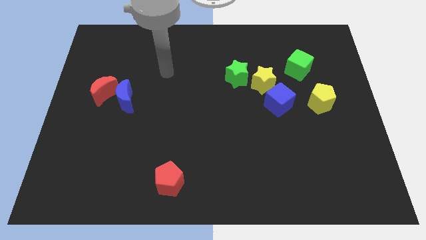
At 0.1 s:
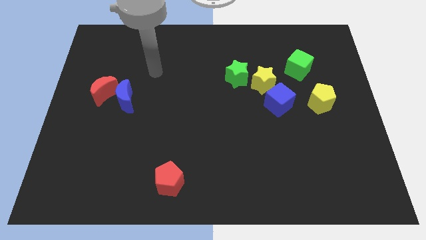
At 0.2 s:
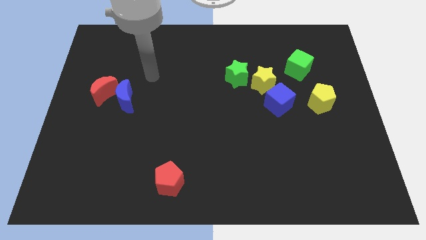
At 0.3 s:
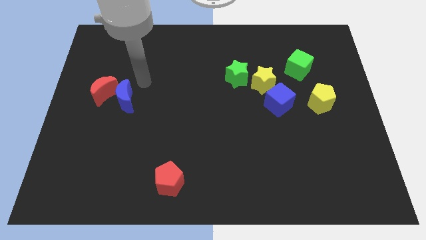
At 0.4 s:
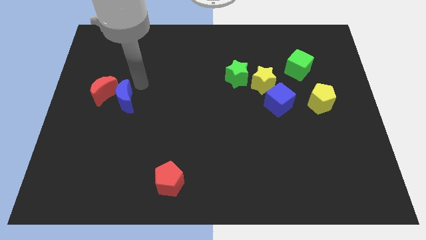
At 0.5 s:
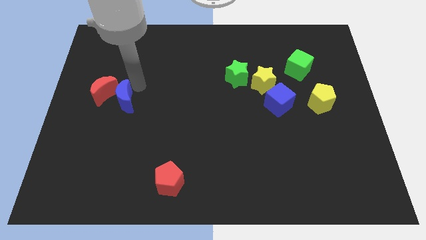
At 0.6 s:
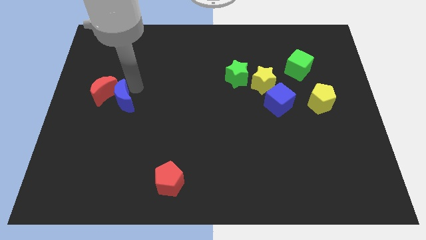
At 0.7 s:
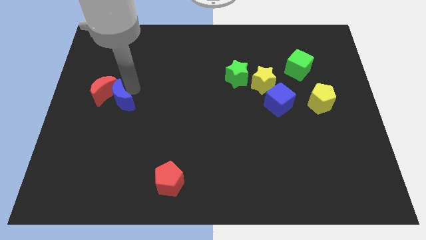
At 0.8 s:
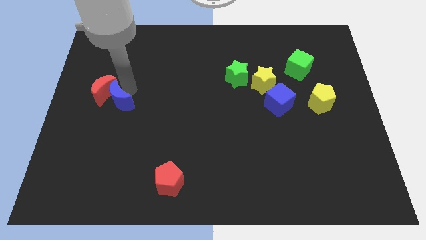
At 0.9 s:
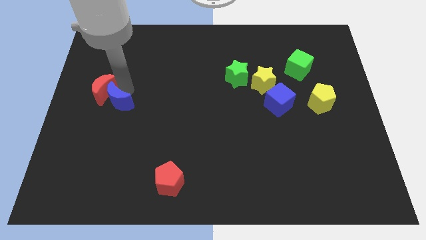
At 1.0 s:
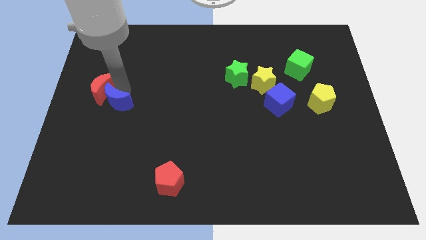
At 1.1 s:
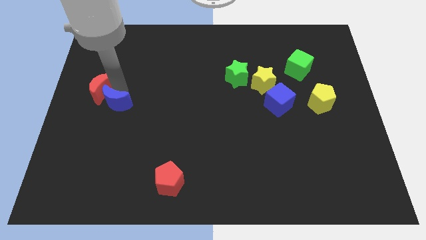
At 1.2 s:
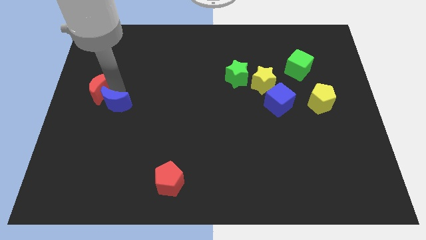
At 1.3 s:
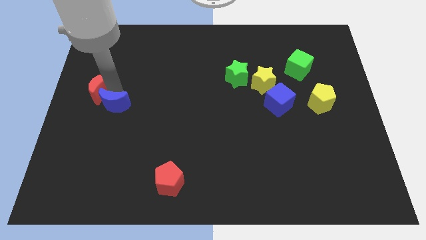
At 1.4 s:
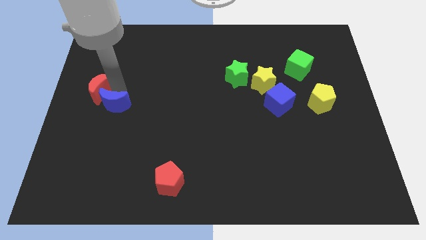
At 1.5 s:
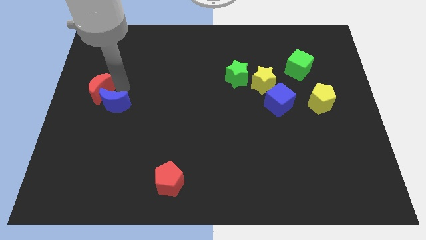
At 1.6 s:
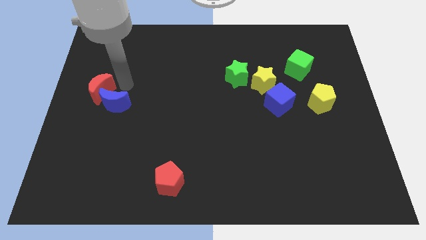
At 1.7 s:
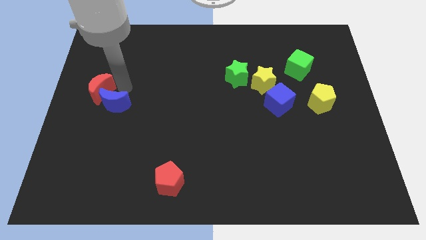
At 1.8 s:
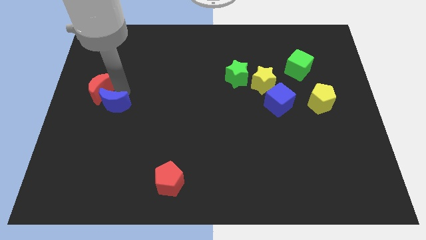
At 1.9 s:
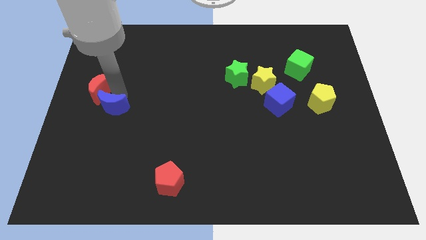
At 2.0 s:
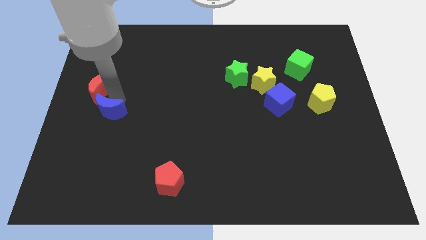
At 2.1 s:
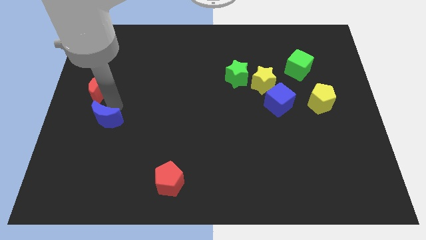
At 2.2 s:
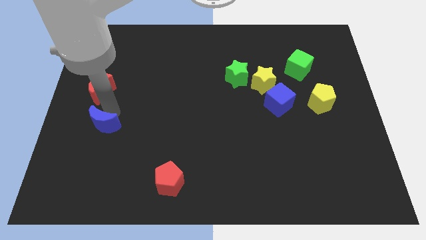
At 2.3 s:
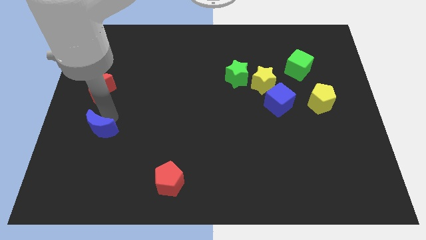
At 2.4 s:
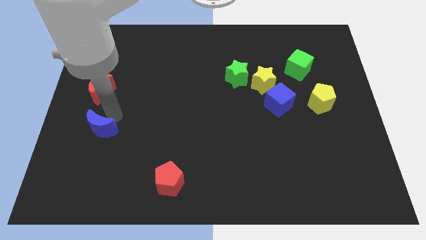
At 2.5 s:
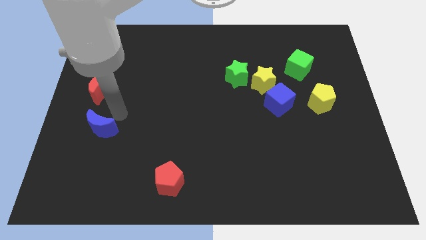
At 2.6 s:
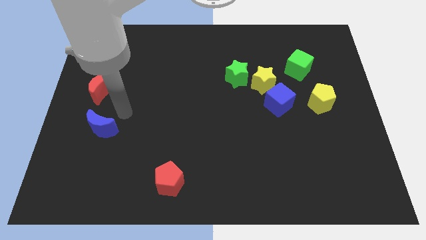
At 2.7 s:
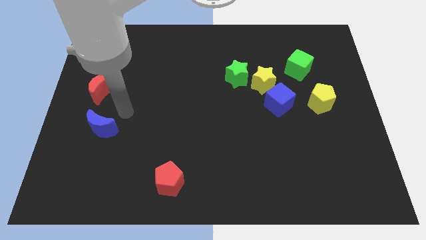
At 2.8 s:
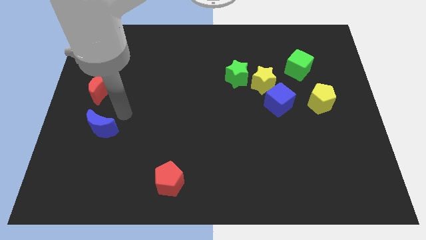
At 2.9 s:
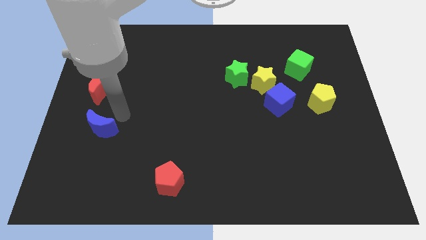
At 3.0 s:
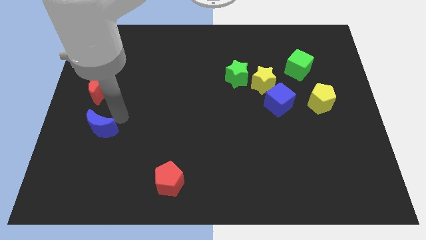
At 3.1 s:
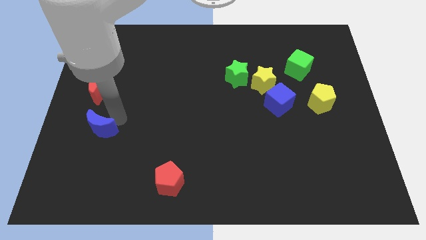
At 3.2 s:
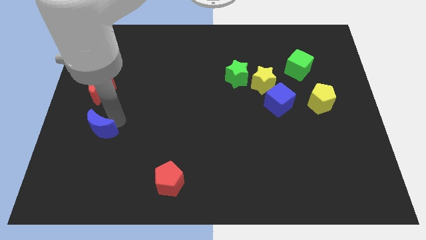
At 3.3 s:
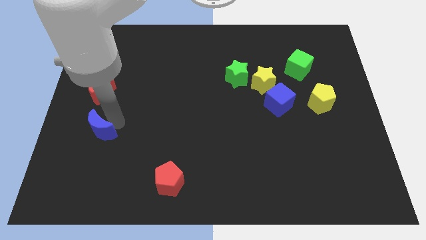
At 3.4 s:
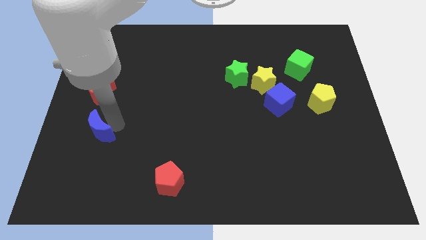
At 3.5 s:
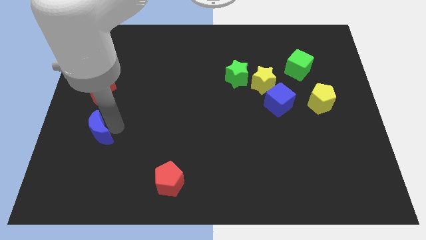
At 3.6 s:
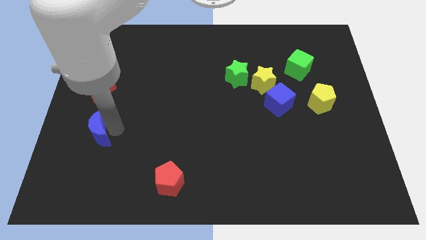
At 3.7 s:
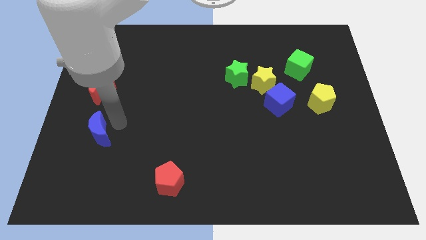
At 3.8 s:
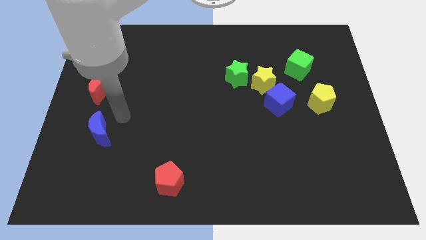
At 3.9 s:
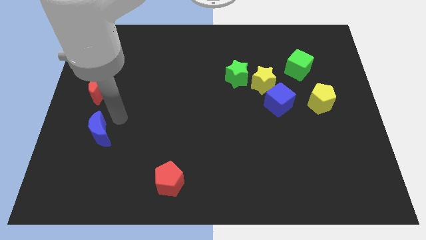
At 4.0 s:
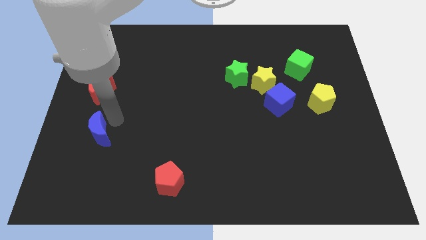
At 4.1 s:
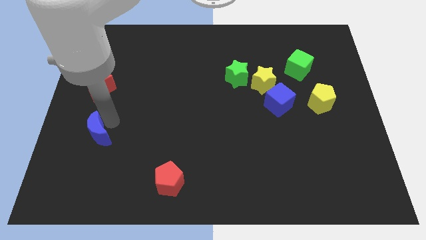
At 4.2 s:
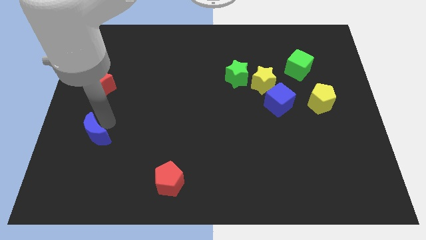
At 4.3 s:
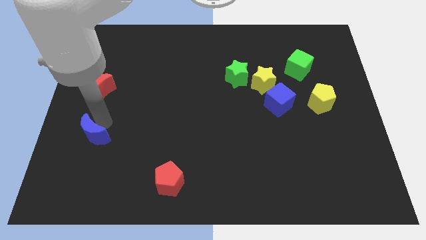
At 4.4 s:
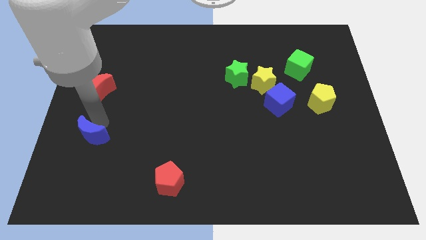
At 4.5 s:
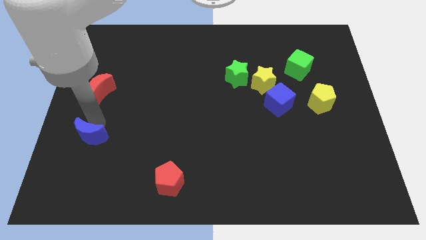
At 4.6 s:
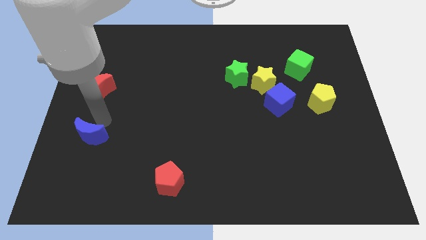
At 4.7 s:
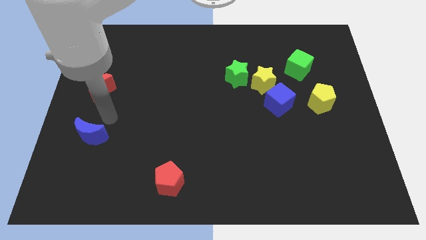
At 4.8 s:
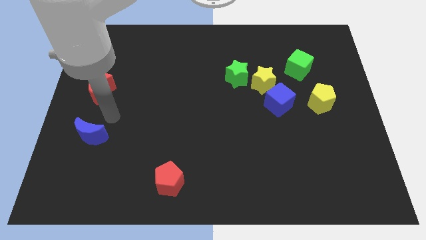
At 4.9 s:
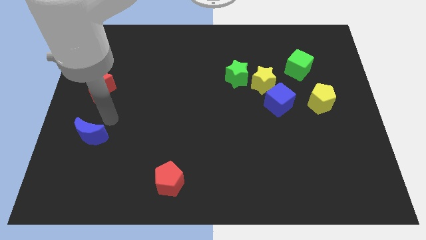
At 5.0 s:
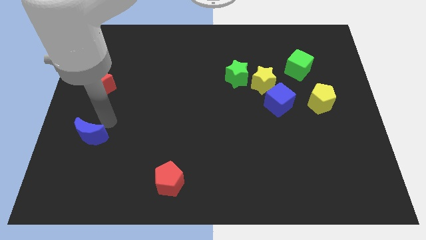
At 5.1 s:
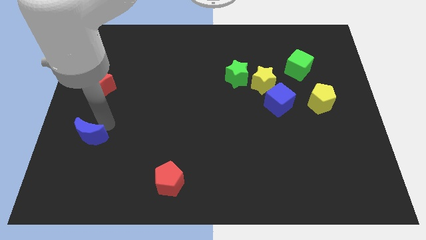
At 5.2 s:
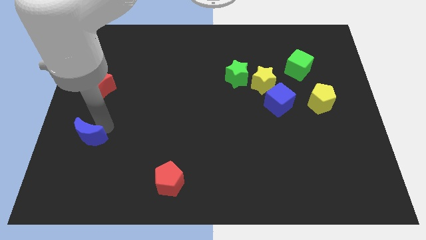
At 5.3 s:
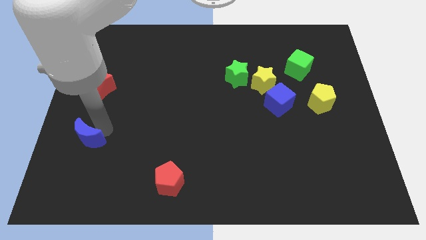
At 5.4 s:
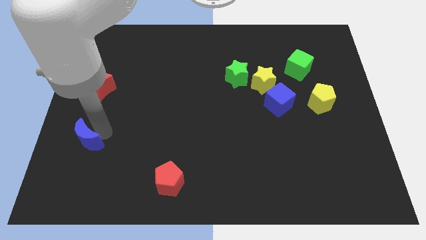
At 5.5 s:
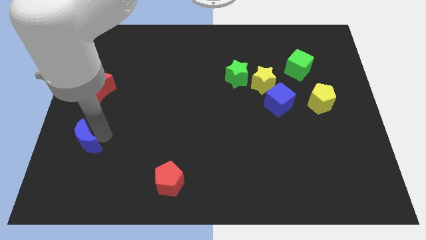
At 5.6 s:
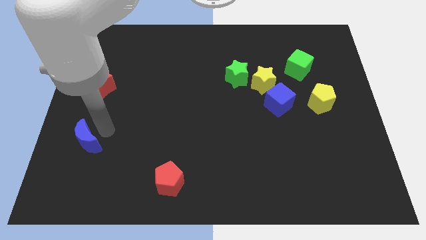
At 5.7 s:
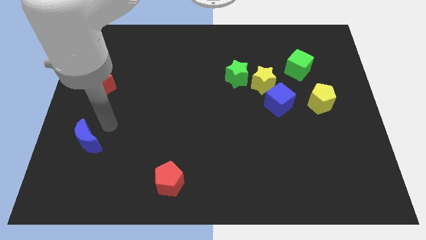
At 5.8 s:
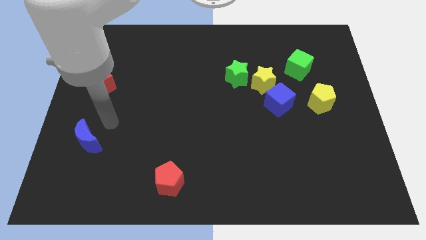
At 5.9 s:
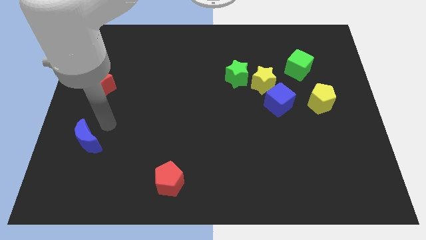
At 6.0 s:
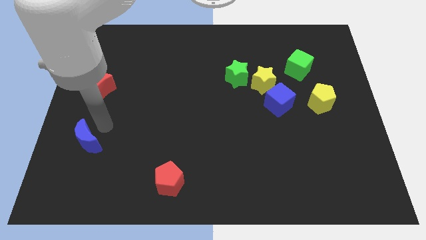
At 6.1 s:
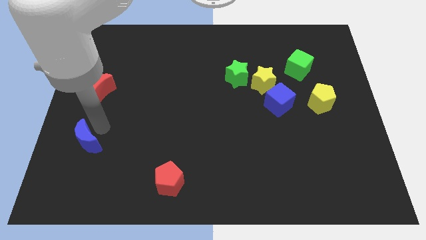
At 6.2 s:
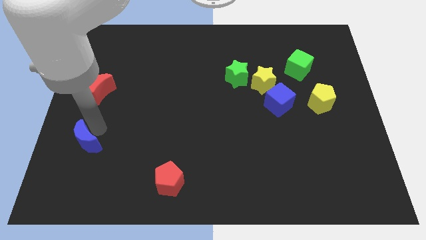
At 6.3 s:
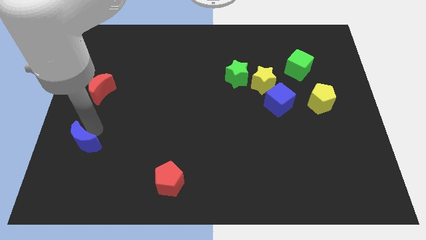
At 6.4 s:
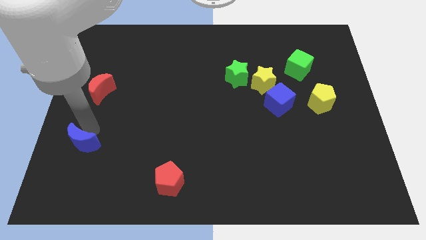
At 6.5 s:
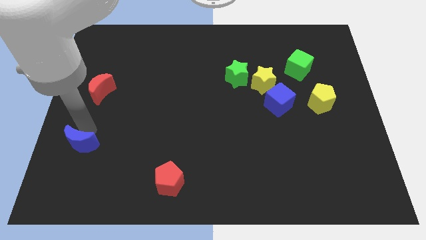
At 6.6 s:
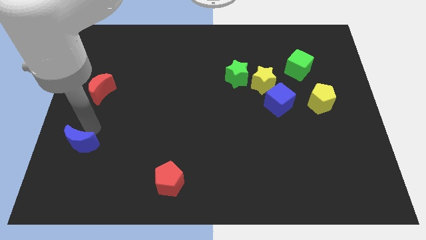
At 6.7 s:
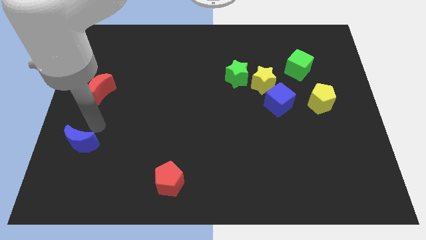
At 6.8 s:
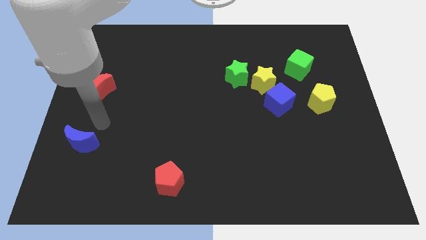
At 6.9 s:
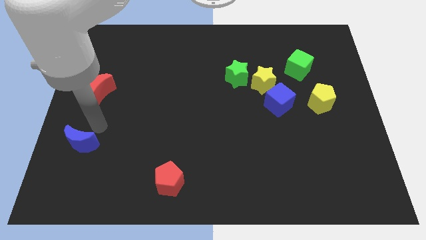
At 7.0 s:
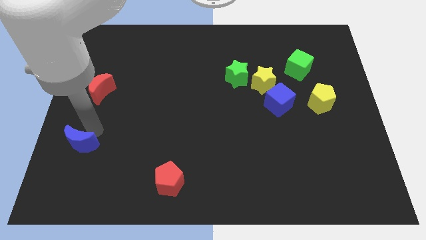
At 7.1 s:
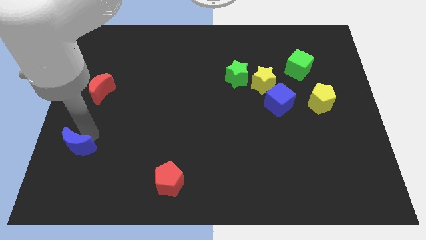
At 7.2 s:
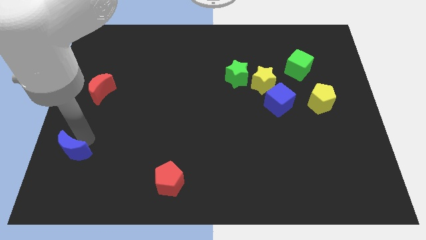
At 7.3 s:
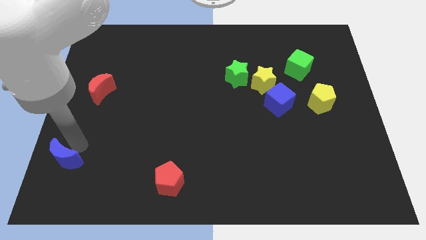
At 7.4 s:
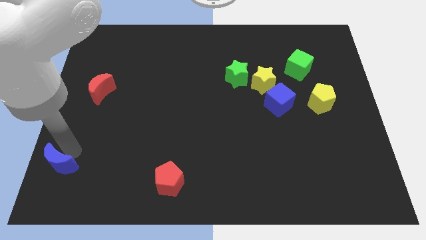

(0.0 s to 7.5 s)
slide the blue moon to the bottom left
